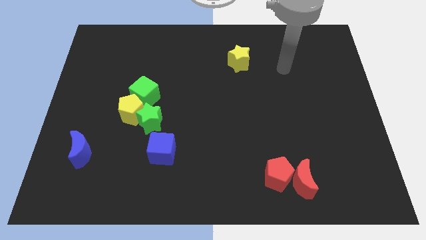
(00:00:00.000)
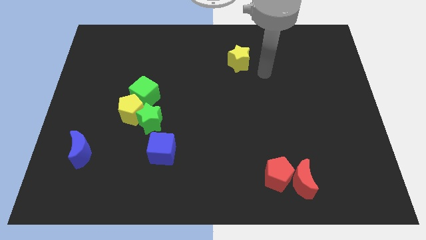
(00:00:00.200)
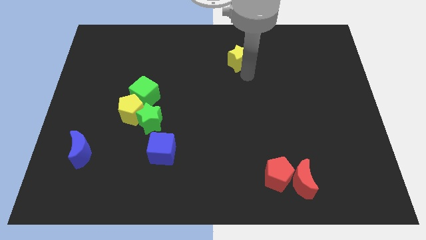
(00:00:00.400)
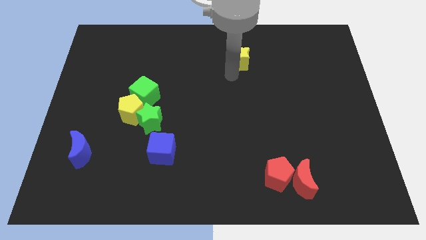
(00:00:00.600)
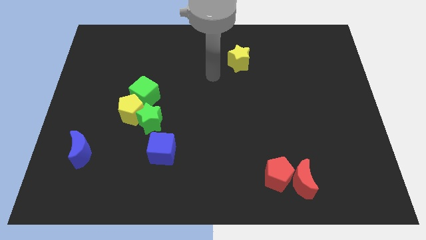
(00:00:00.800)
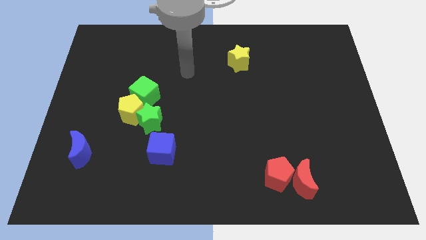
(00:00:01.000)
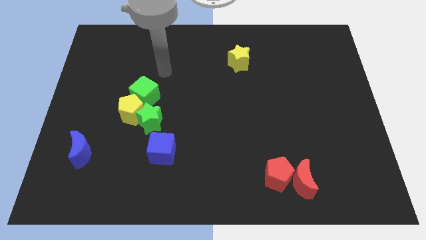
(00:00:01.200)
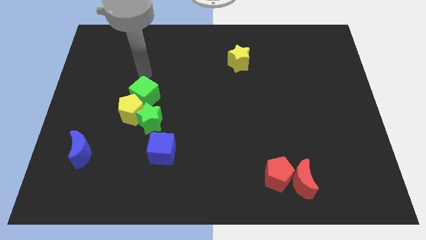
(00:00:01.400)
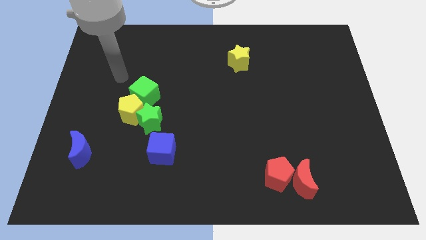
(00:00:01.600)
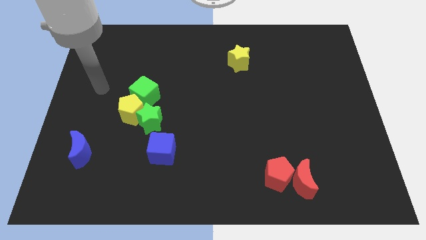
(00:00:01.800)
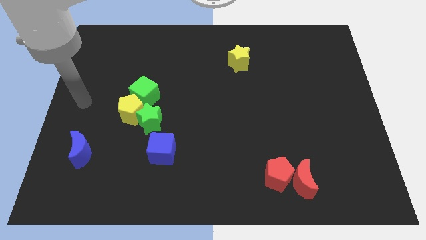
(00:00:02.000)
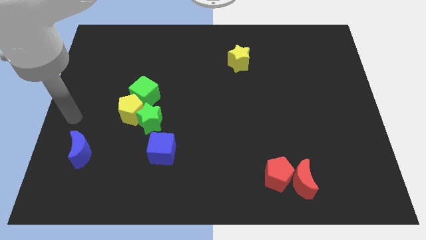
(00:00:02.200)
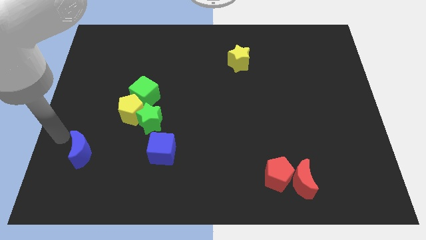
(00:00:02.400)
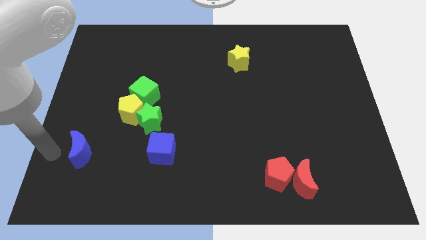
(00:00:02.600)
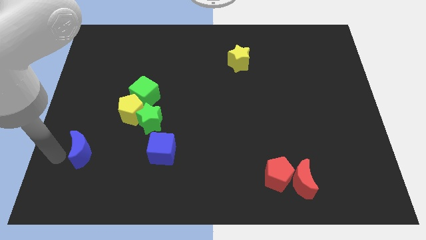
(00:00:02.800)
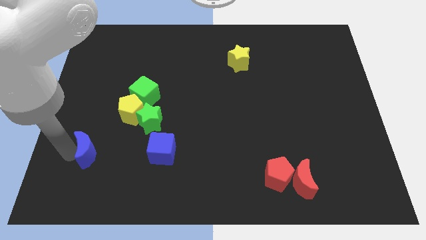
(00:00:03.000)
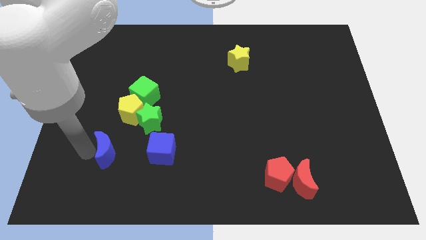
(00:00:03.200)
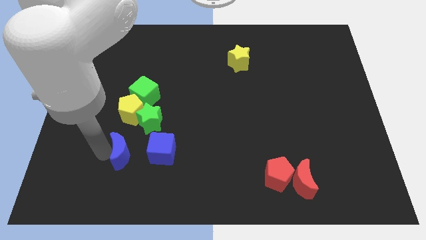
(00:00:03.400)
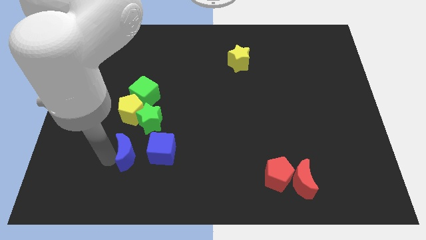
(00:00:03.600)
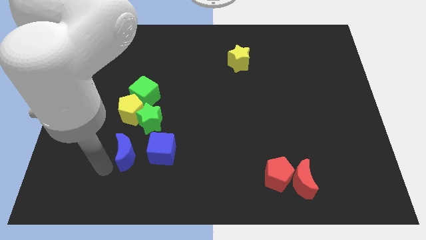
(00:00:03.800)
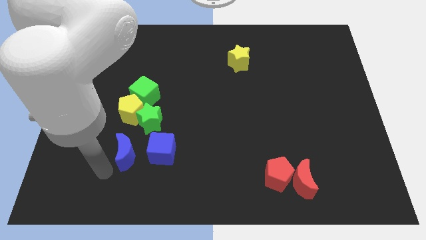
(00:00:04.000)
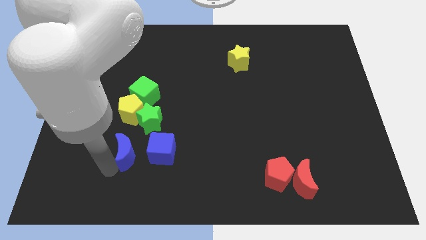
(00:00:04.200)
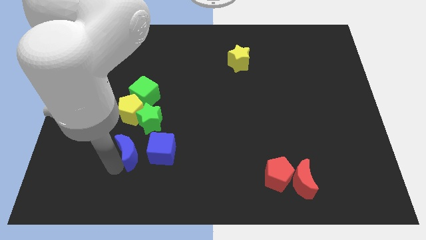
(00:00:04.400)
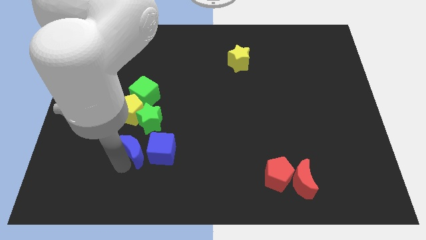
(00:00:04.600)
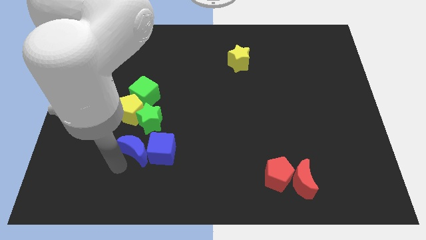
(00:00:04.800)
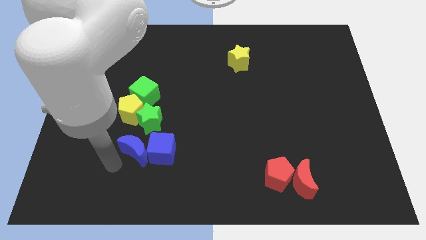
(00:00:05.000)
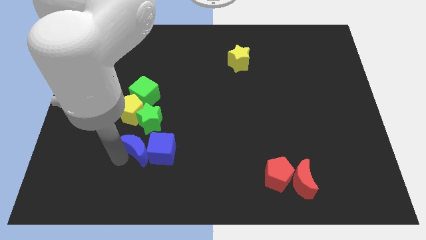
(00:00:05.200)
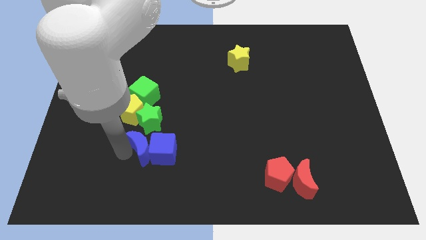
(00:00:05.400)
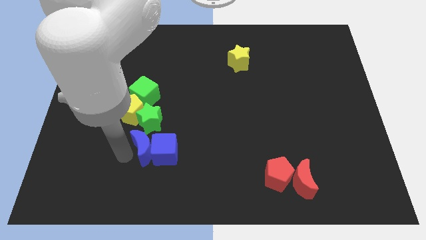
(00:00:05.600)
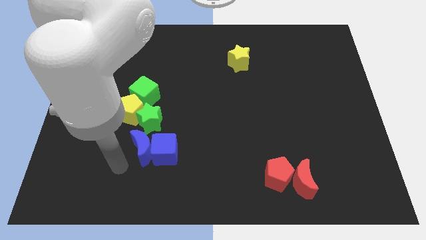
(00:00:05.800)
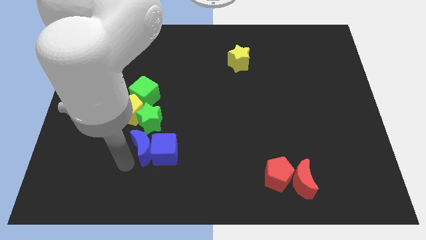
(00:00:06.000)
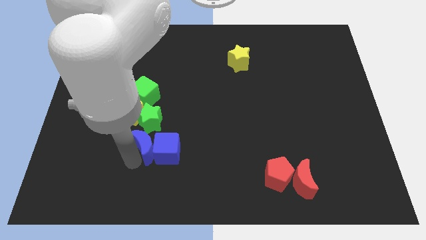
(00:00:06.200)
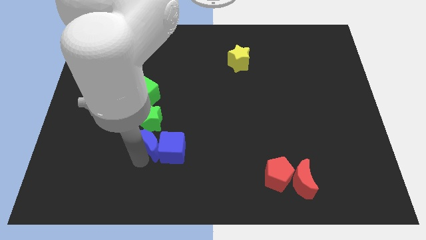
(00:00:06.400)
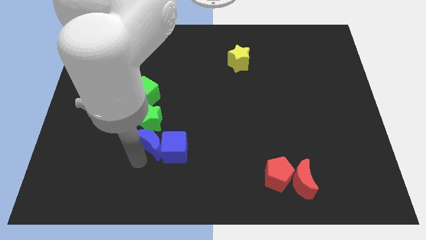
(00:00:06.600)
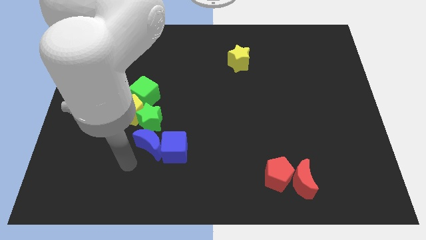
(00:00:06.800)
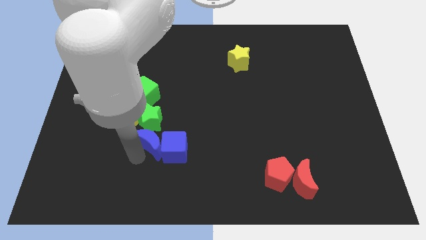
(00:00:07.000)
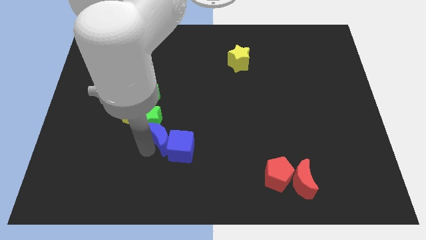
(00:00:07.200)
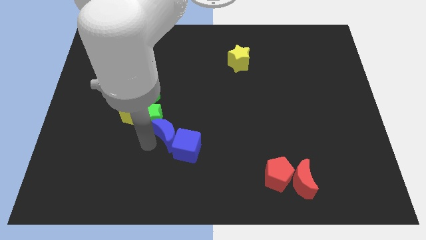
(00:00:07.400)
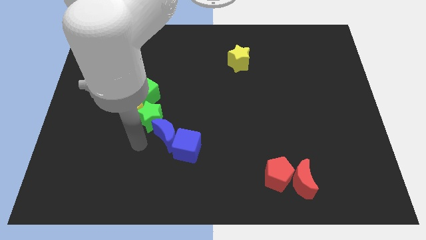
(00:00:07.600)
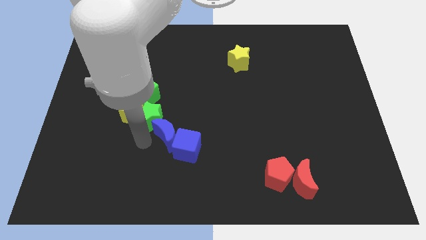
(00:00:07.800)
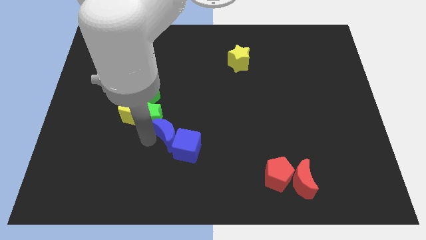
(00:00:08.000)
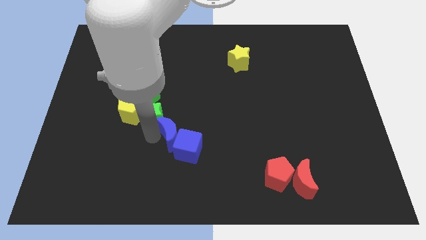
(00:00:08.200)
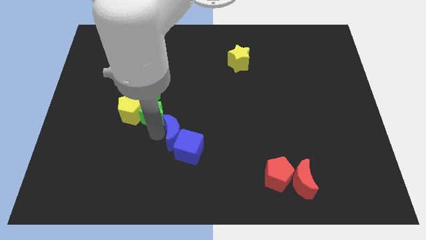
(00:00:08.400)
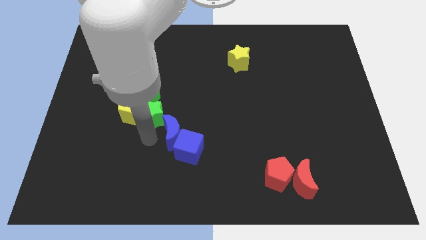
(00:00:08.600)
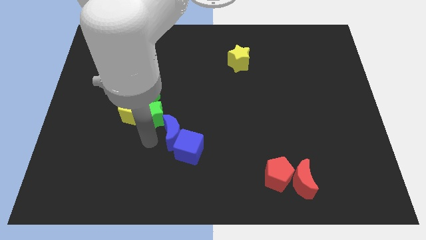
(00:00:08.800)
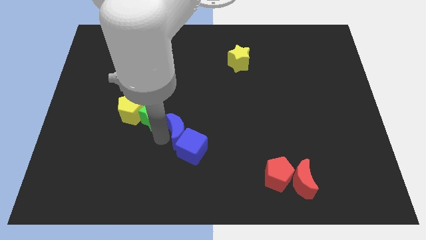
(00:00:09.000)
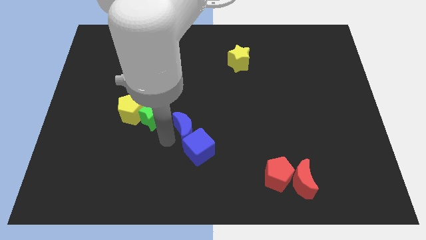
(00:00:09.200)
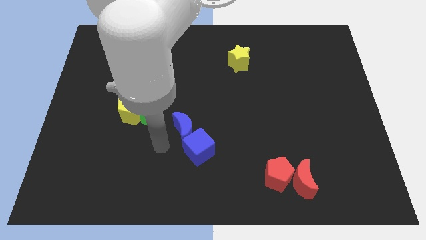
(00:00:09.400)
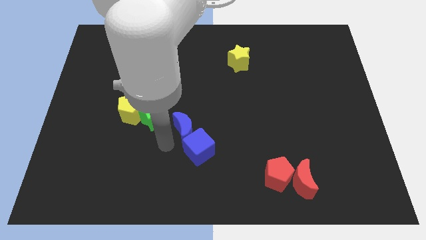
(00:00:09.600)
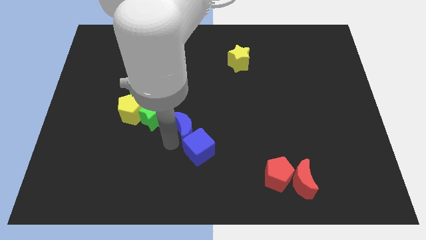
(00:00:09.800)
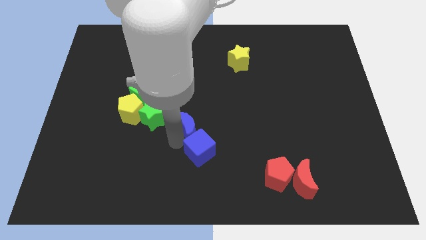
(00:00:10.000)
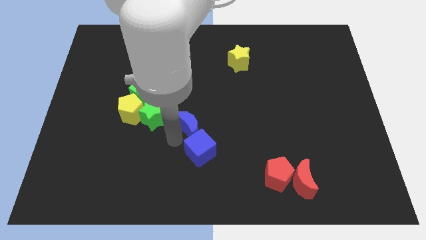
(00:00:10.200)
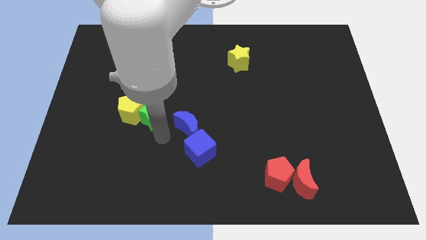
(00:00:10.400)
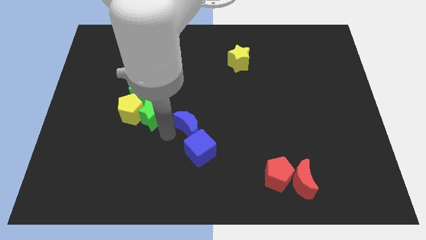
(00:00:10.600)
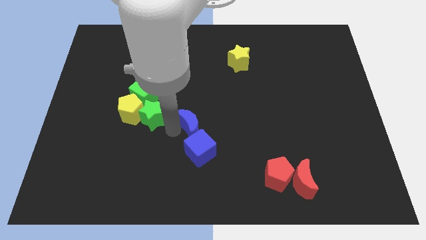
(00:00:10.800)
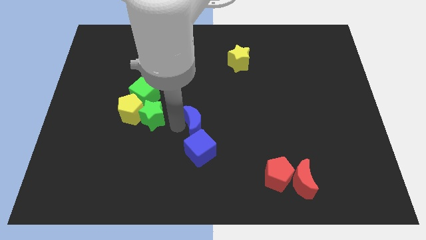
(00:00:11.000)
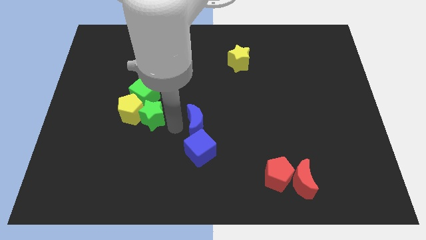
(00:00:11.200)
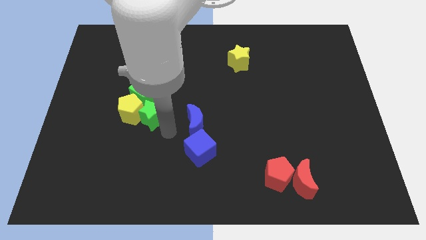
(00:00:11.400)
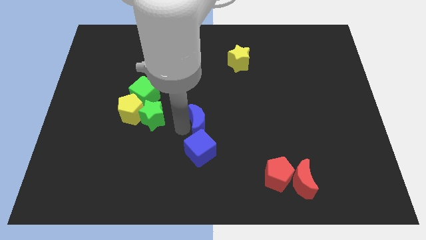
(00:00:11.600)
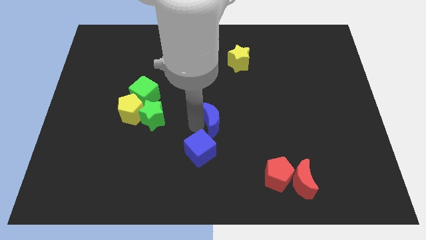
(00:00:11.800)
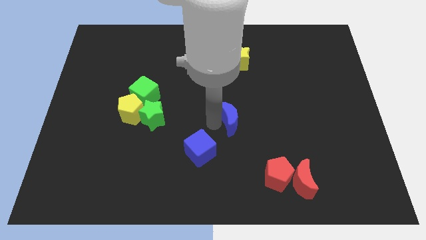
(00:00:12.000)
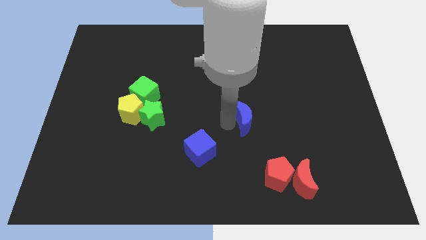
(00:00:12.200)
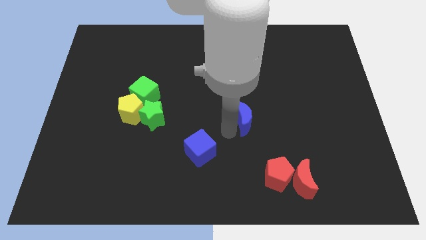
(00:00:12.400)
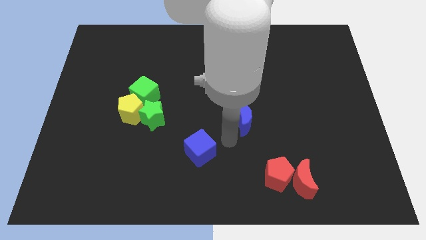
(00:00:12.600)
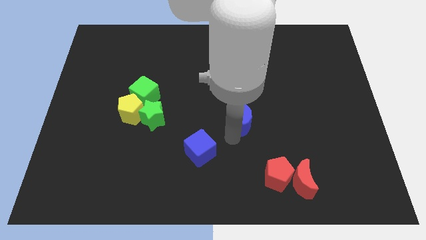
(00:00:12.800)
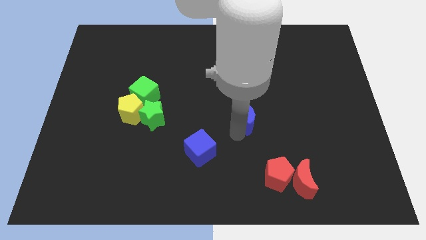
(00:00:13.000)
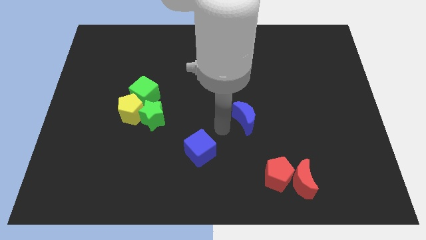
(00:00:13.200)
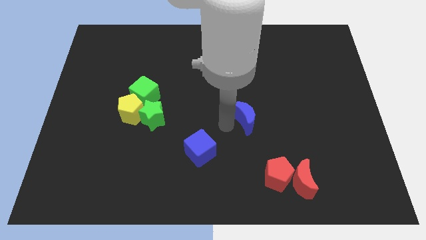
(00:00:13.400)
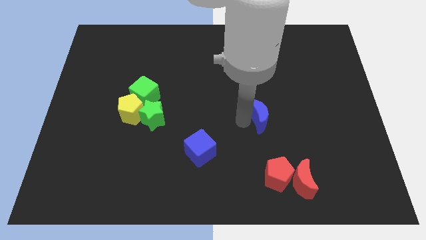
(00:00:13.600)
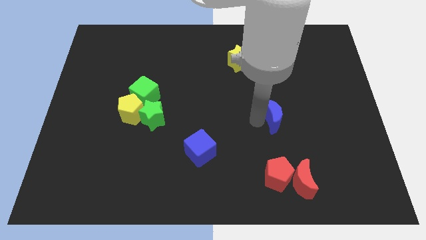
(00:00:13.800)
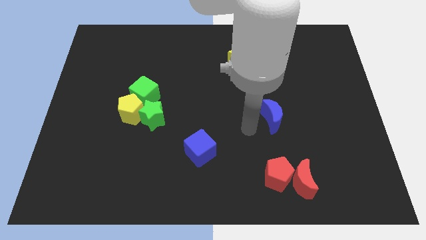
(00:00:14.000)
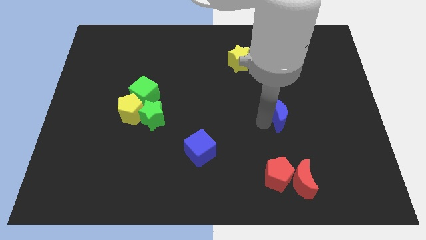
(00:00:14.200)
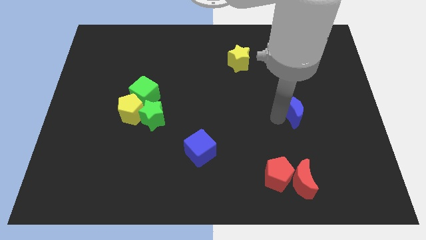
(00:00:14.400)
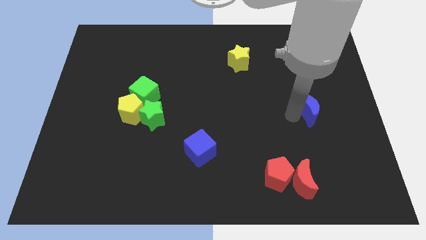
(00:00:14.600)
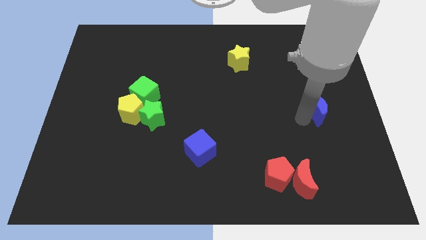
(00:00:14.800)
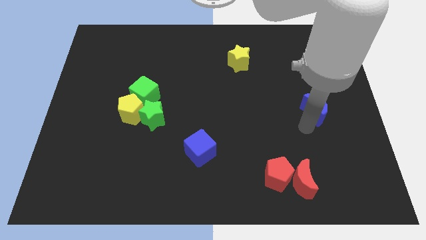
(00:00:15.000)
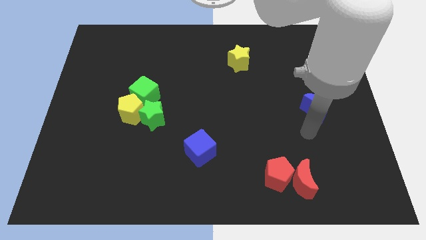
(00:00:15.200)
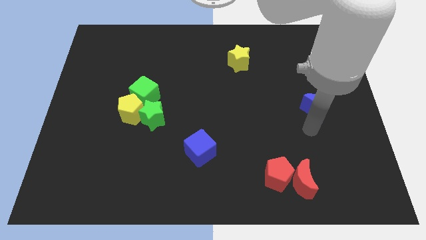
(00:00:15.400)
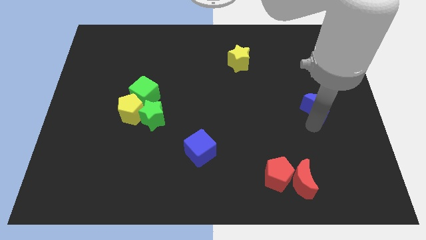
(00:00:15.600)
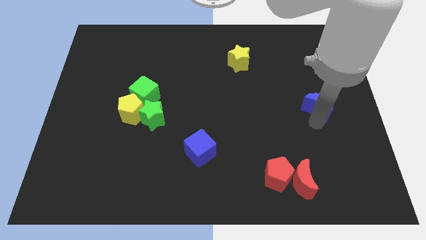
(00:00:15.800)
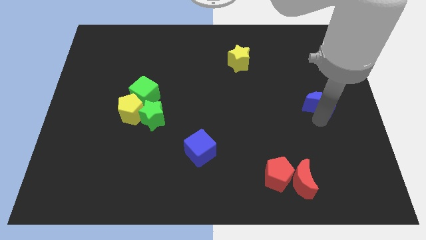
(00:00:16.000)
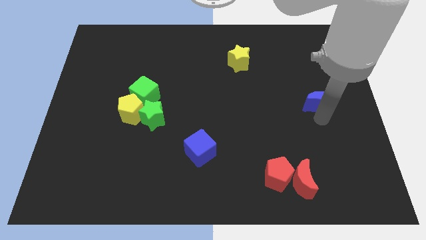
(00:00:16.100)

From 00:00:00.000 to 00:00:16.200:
move the blue moon to the right side
